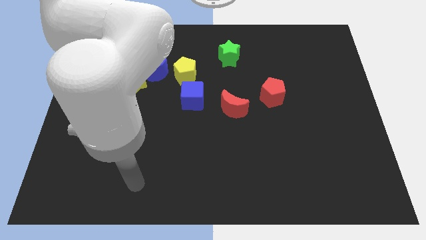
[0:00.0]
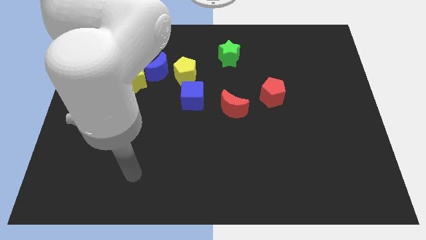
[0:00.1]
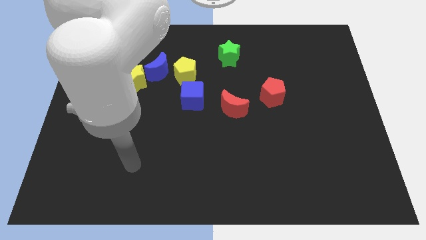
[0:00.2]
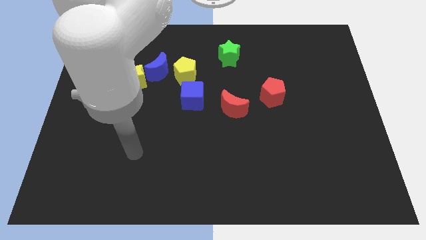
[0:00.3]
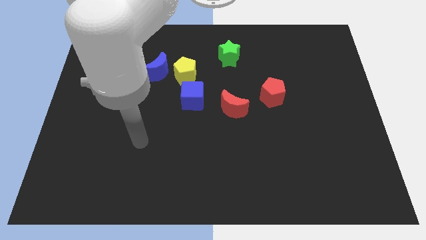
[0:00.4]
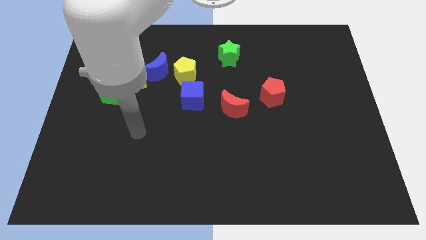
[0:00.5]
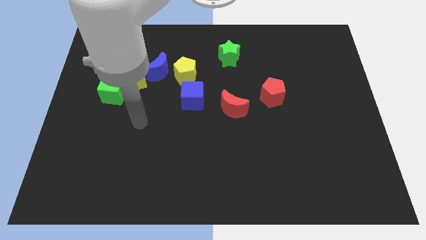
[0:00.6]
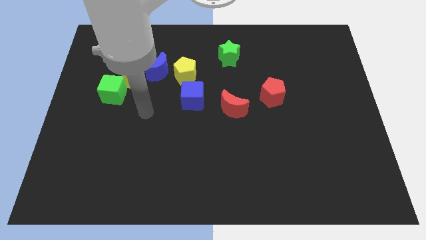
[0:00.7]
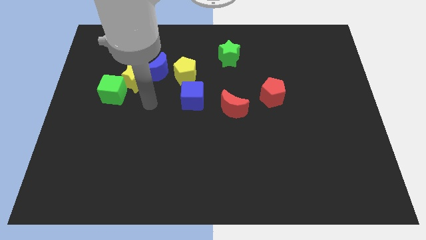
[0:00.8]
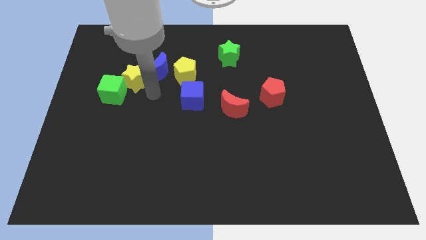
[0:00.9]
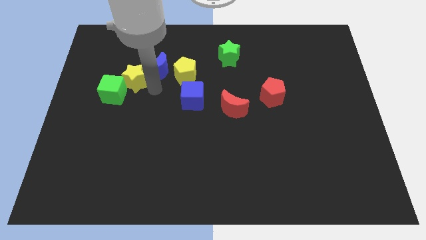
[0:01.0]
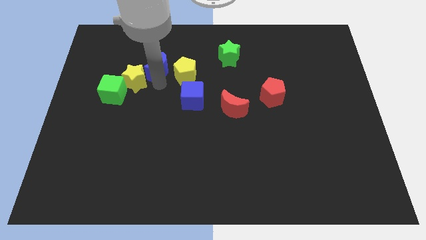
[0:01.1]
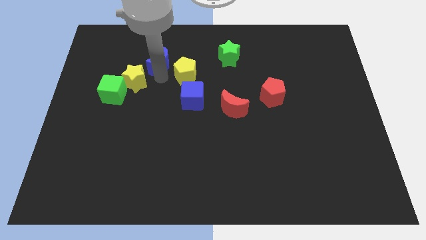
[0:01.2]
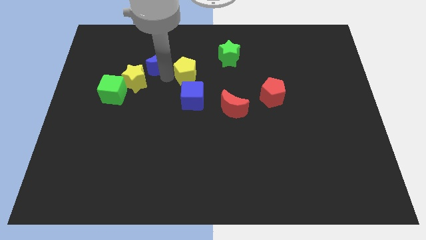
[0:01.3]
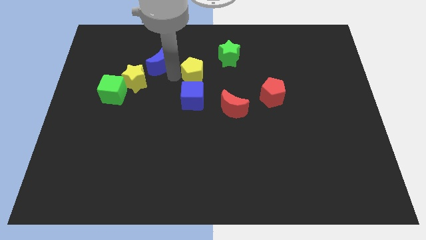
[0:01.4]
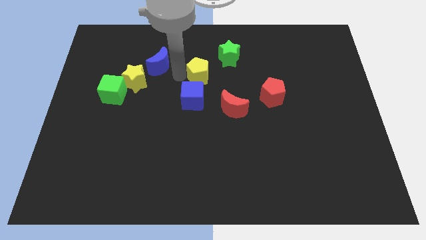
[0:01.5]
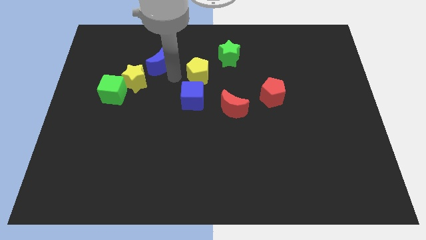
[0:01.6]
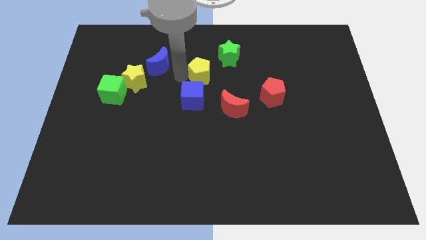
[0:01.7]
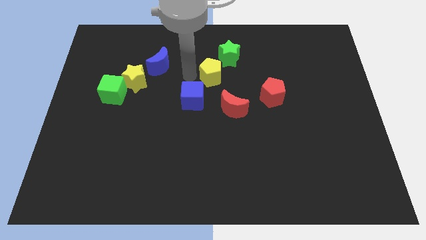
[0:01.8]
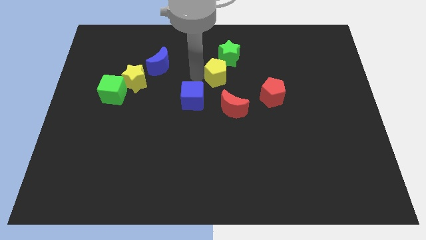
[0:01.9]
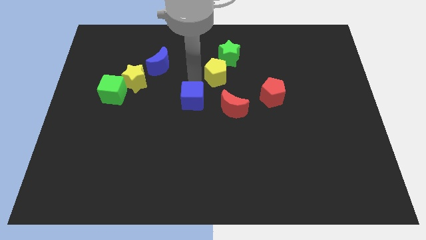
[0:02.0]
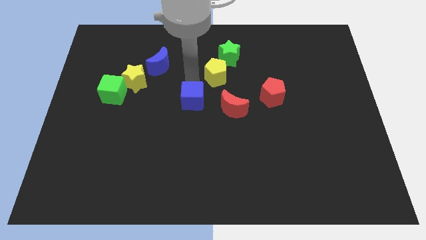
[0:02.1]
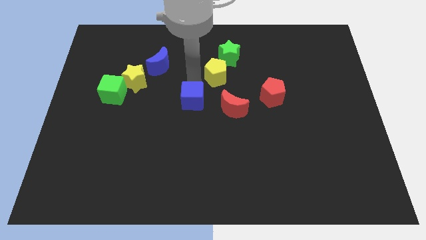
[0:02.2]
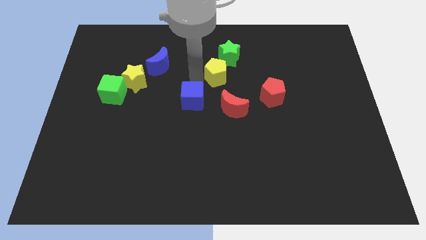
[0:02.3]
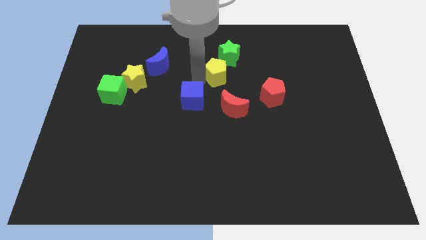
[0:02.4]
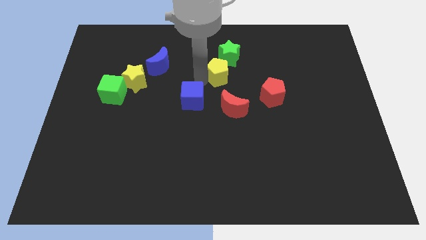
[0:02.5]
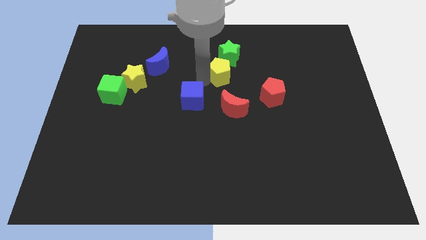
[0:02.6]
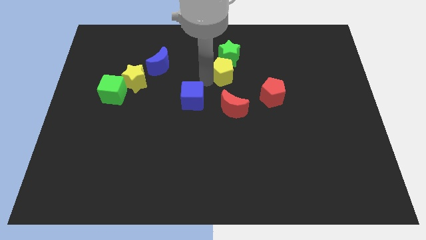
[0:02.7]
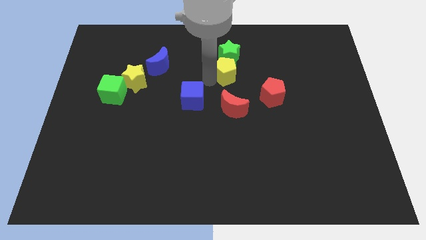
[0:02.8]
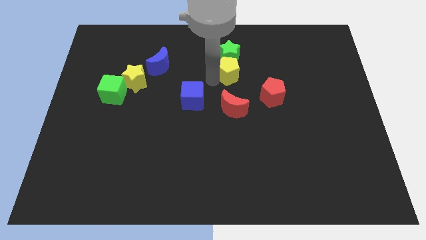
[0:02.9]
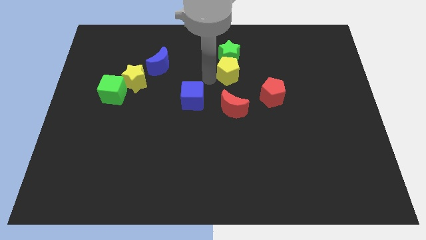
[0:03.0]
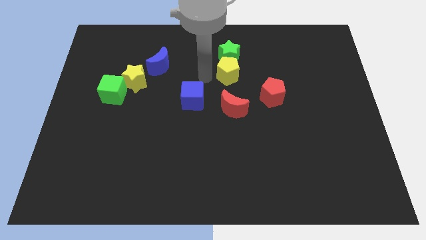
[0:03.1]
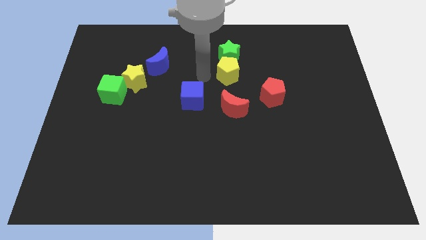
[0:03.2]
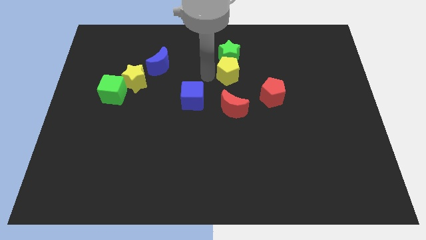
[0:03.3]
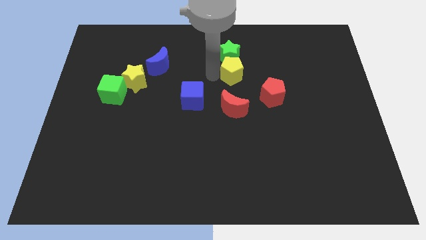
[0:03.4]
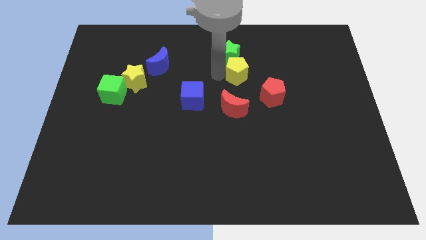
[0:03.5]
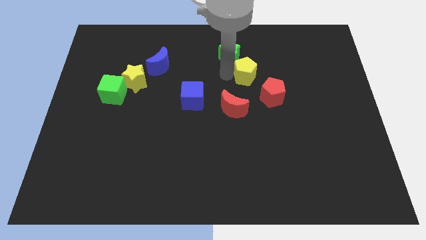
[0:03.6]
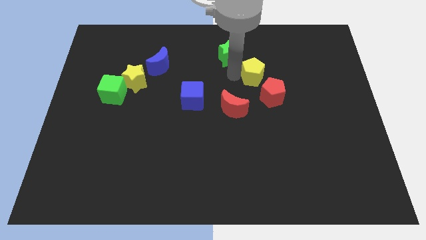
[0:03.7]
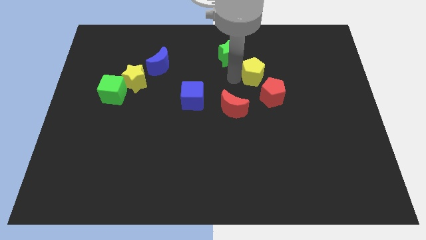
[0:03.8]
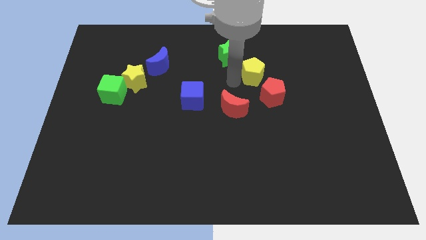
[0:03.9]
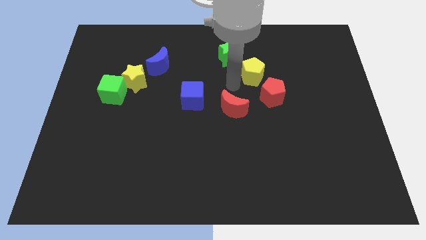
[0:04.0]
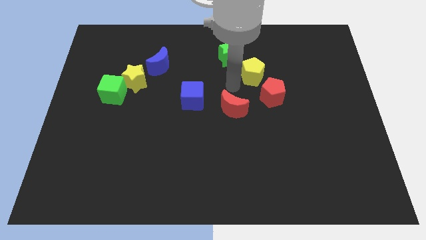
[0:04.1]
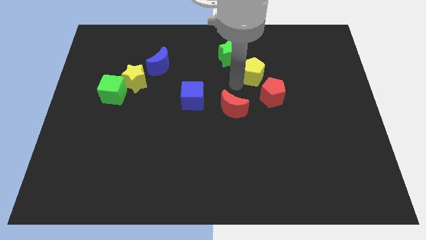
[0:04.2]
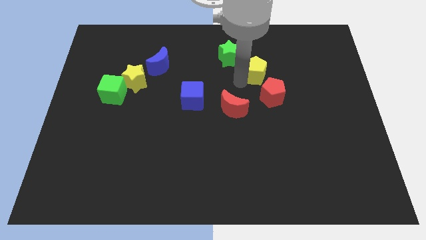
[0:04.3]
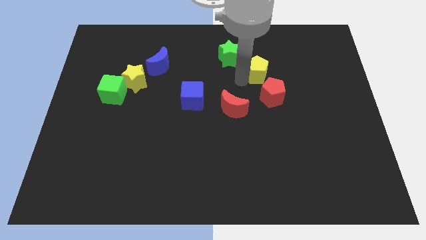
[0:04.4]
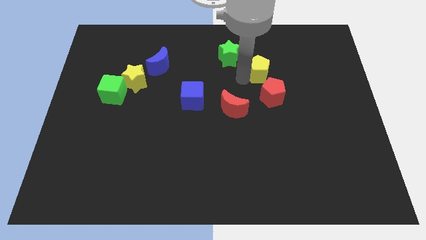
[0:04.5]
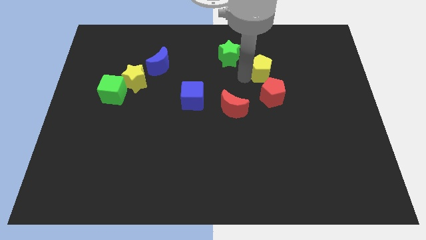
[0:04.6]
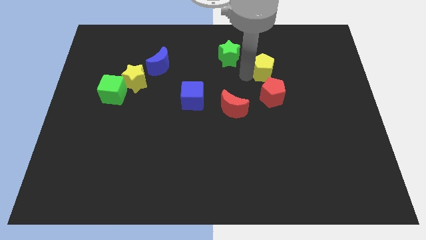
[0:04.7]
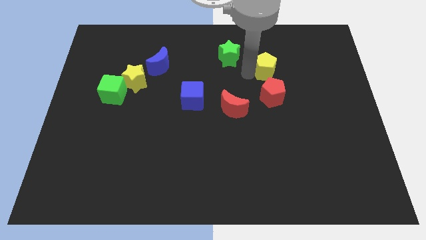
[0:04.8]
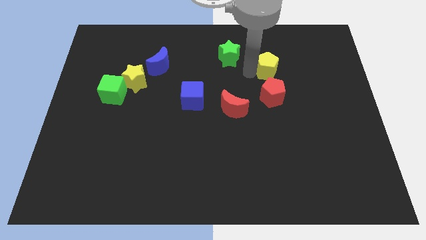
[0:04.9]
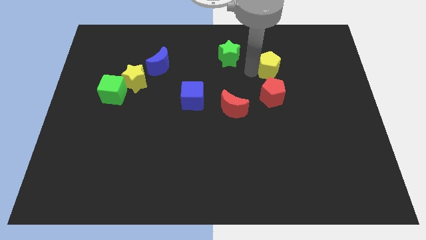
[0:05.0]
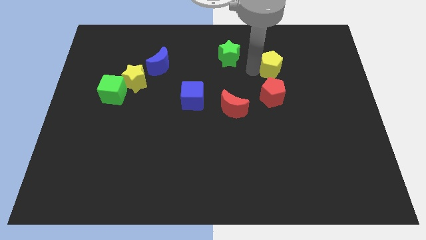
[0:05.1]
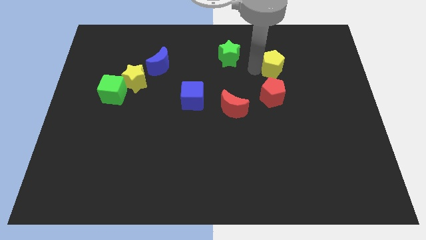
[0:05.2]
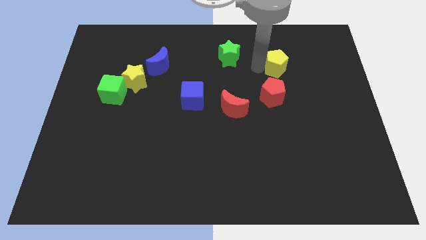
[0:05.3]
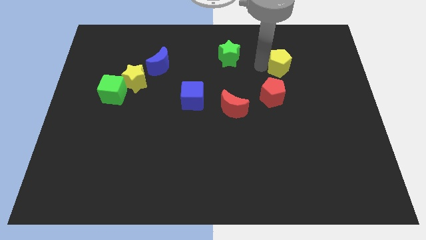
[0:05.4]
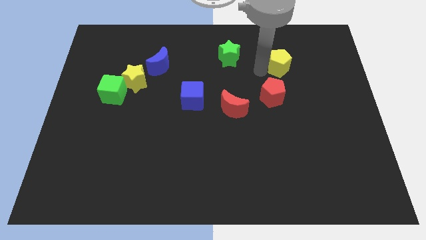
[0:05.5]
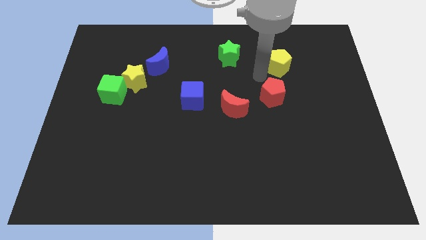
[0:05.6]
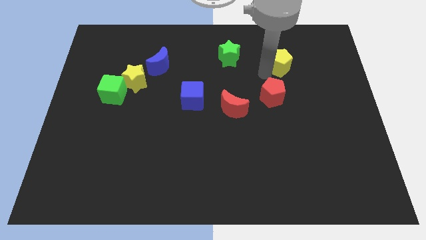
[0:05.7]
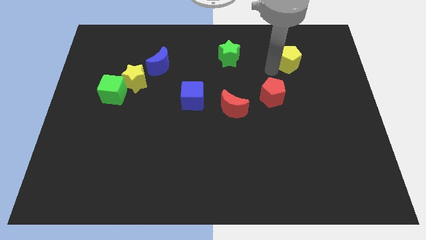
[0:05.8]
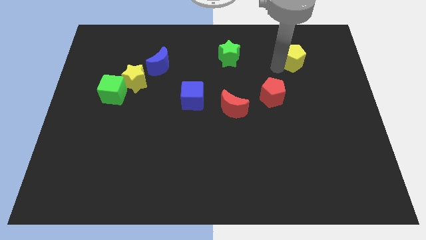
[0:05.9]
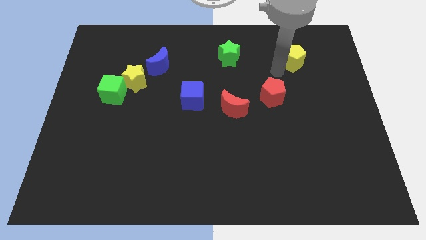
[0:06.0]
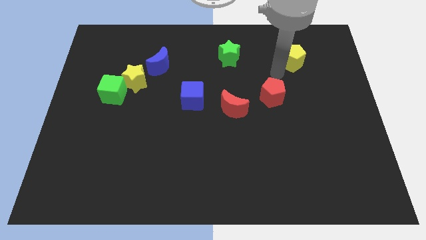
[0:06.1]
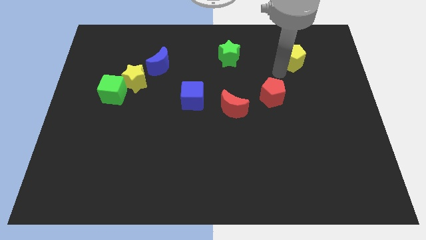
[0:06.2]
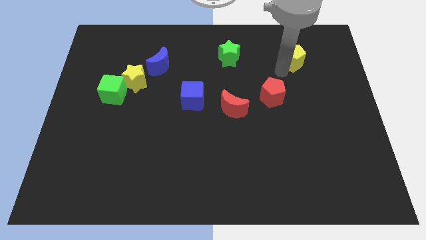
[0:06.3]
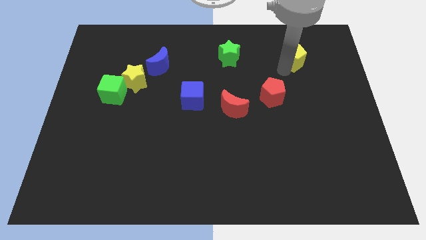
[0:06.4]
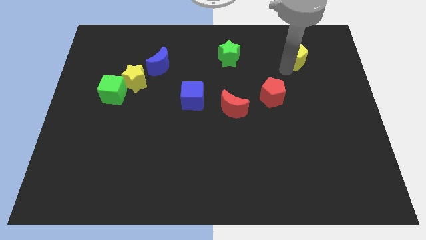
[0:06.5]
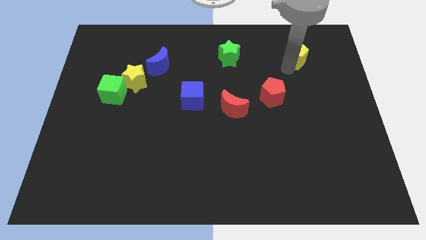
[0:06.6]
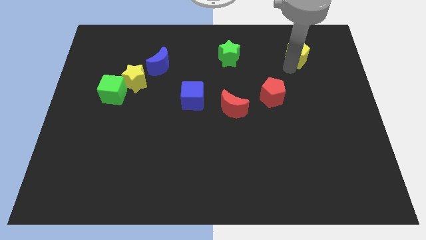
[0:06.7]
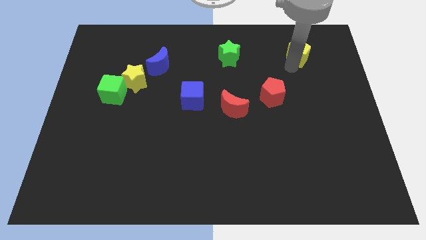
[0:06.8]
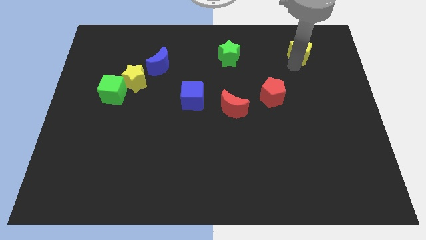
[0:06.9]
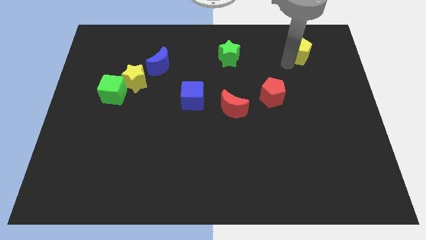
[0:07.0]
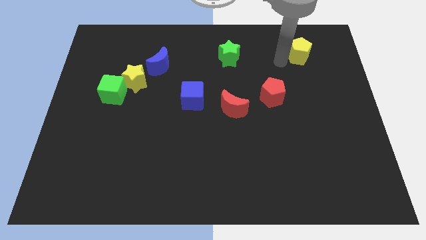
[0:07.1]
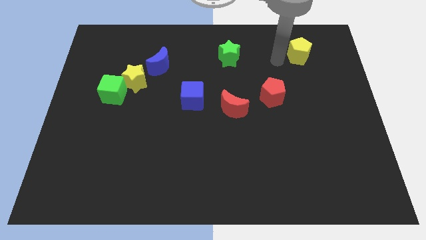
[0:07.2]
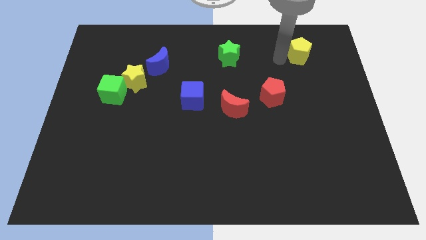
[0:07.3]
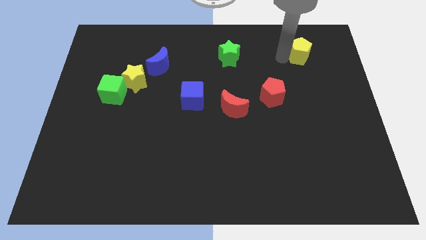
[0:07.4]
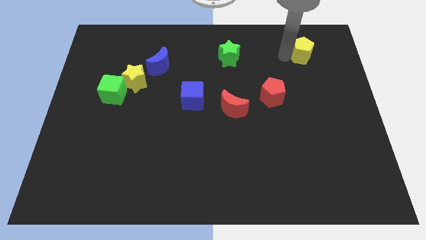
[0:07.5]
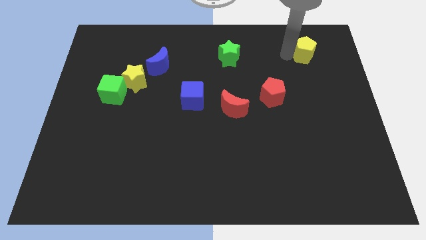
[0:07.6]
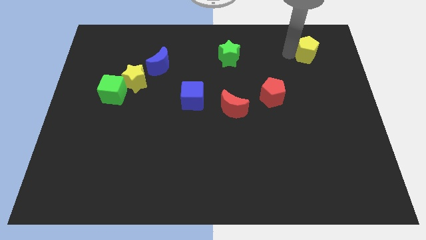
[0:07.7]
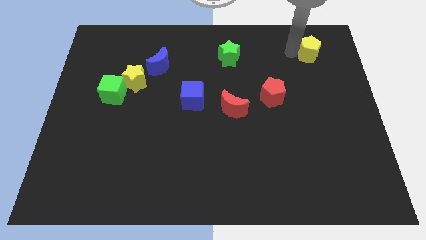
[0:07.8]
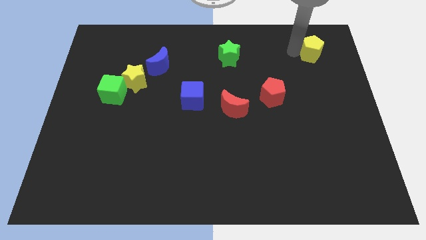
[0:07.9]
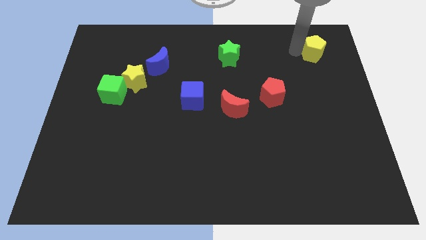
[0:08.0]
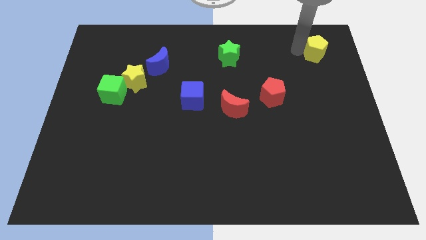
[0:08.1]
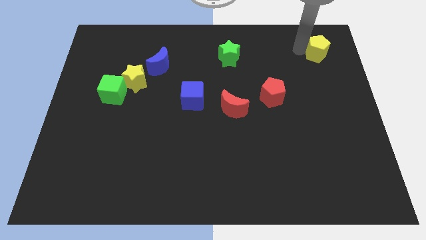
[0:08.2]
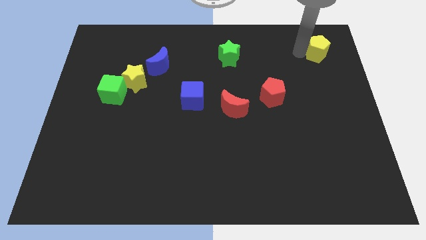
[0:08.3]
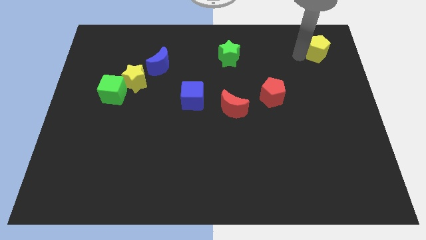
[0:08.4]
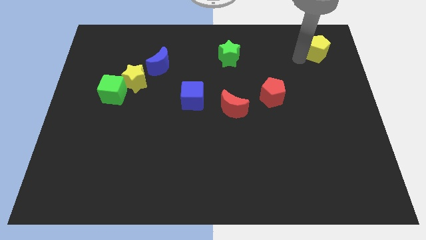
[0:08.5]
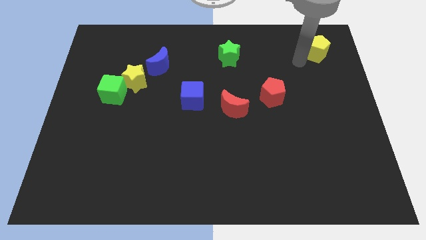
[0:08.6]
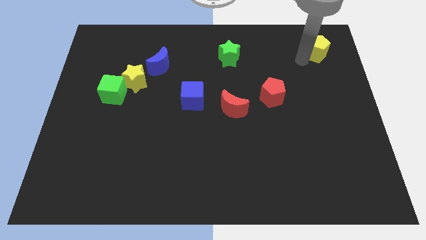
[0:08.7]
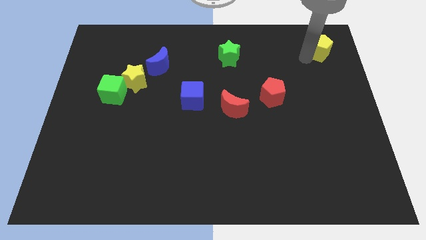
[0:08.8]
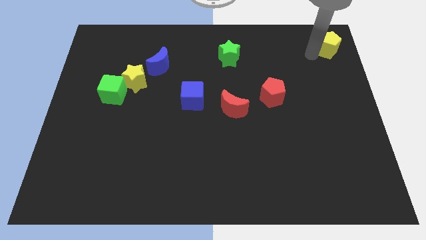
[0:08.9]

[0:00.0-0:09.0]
slide the yellow pentagon to the top right corner
